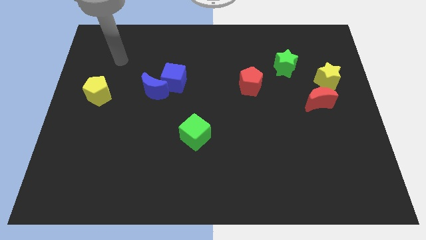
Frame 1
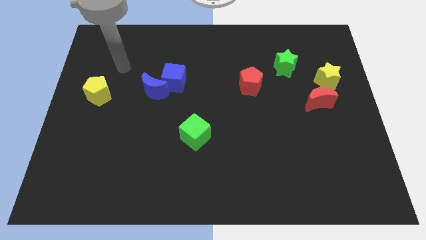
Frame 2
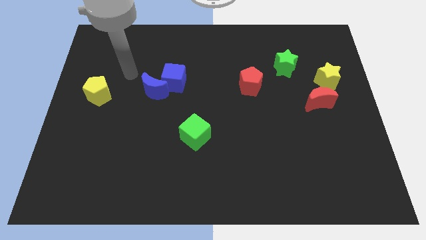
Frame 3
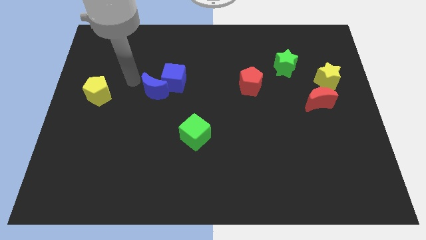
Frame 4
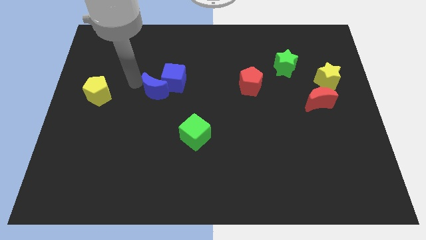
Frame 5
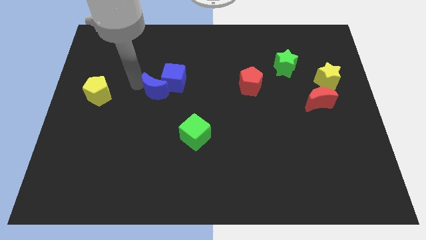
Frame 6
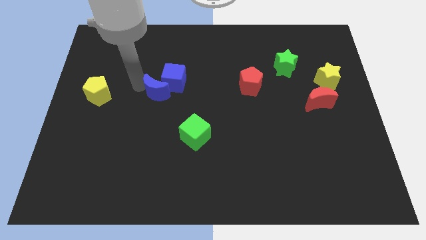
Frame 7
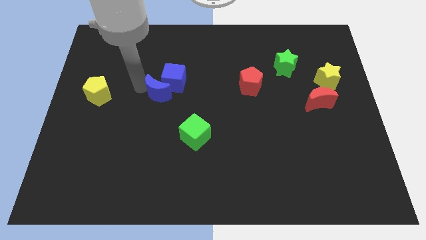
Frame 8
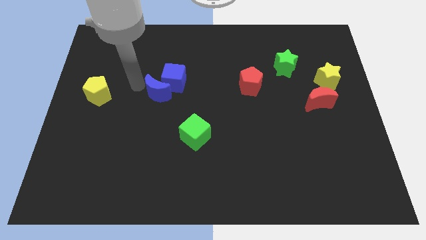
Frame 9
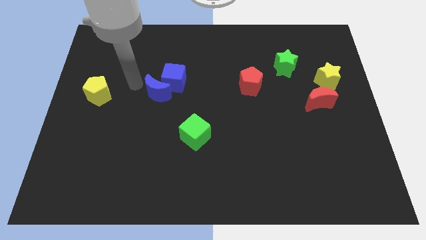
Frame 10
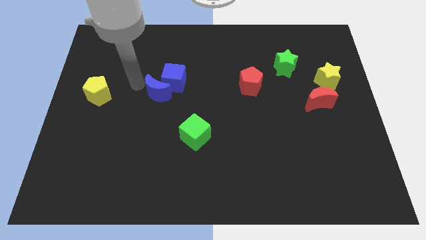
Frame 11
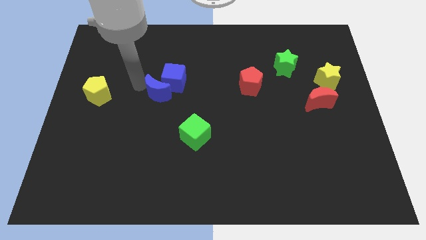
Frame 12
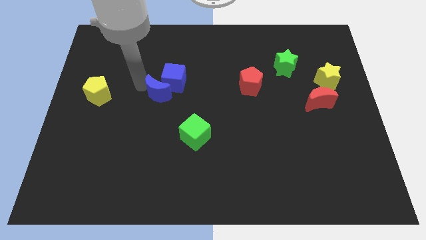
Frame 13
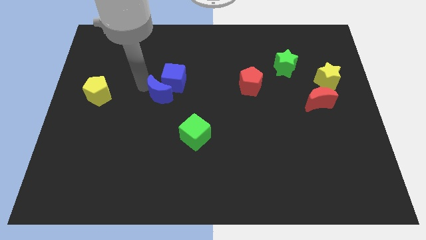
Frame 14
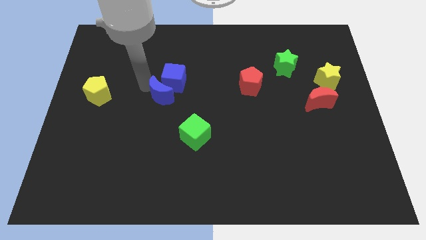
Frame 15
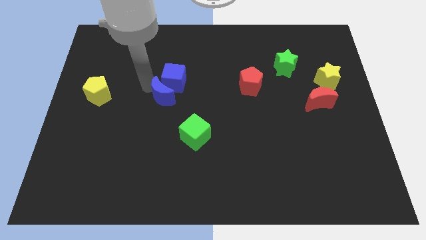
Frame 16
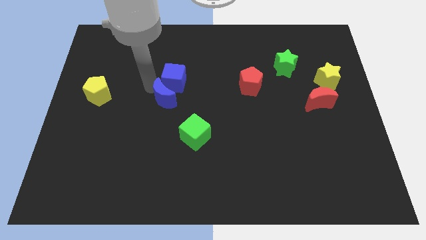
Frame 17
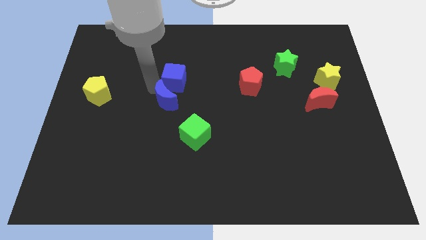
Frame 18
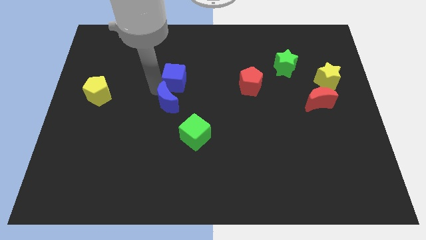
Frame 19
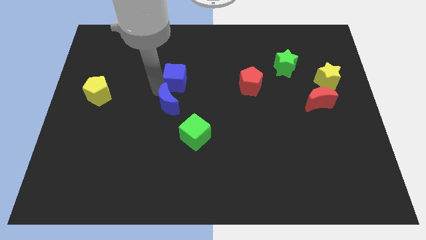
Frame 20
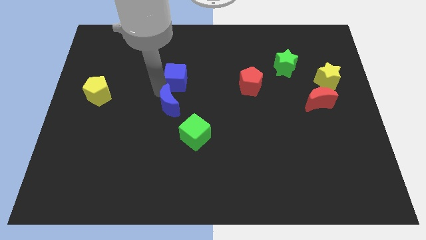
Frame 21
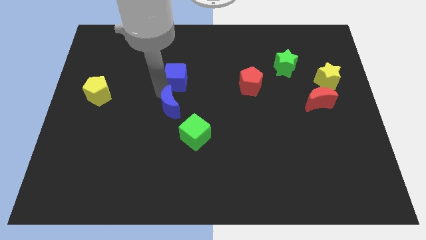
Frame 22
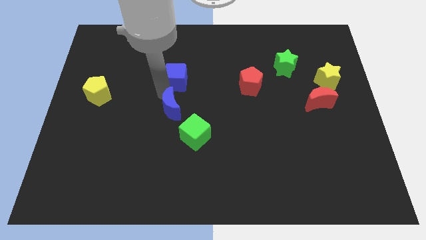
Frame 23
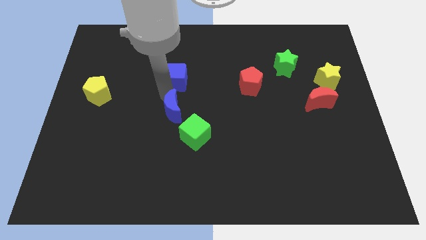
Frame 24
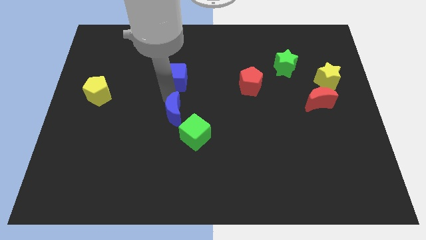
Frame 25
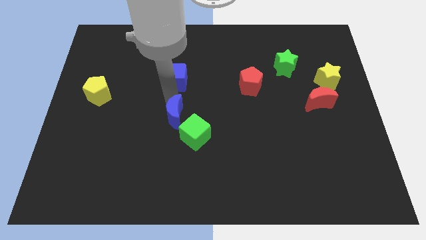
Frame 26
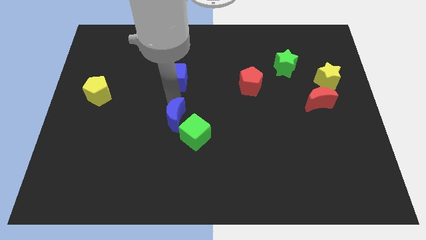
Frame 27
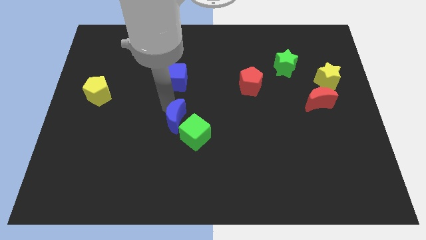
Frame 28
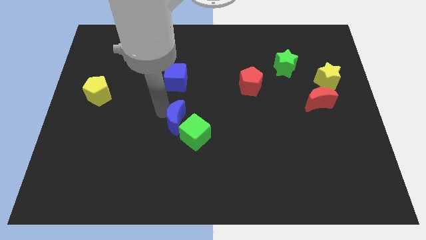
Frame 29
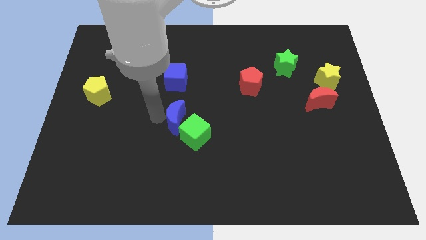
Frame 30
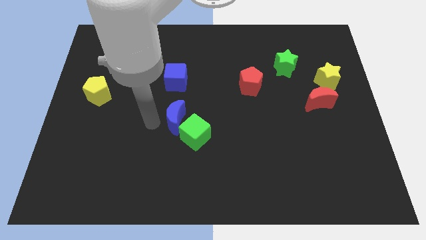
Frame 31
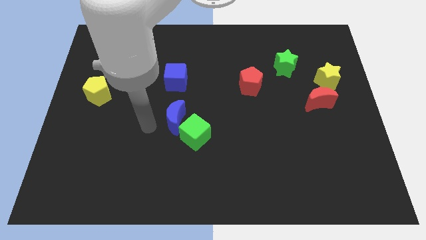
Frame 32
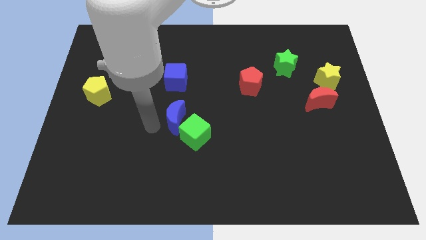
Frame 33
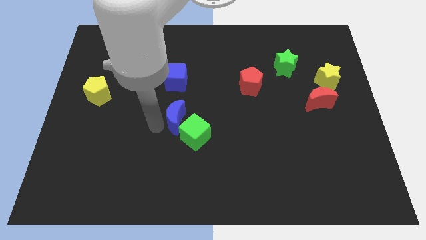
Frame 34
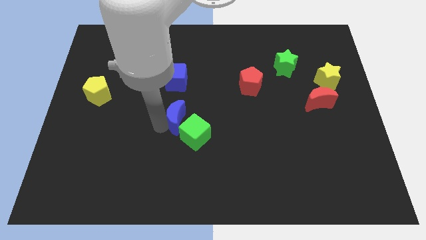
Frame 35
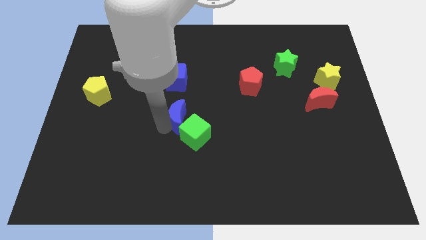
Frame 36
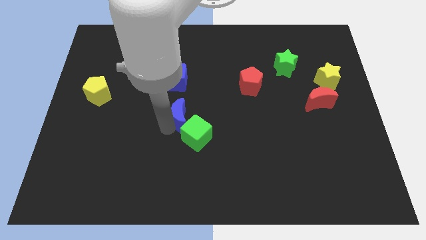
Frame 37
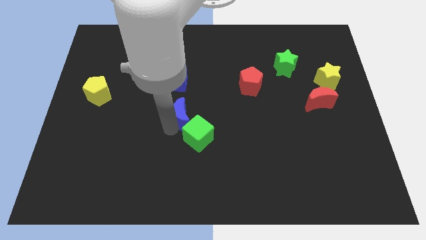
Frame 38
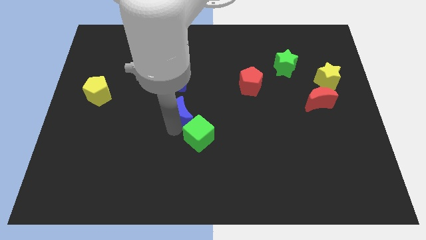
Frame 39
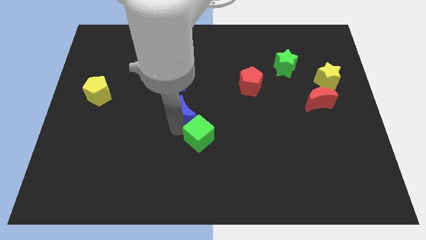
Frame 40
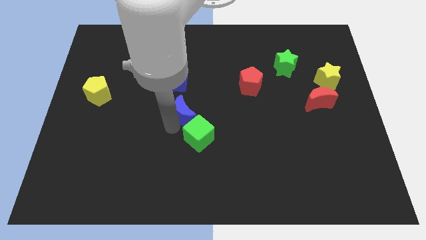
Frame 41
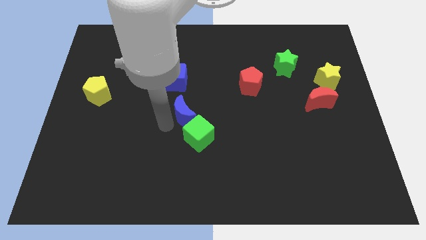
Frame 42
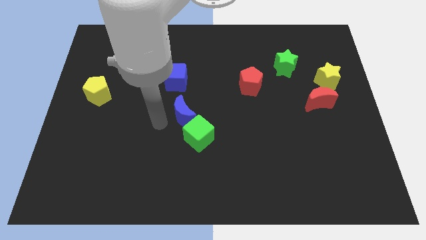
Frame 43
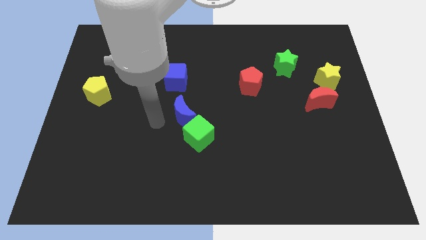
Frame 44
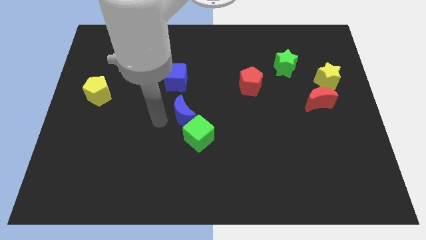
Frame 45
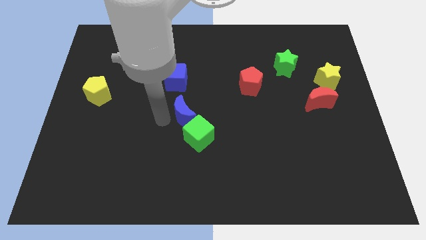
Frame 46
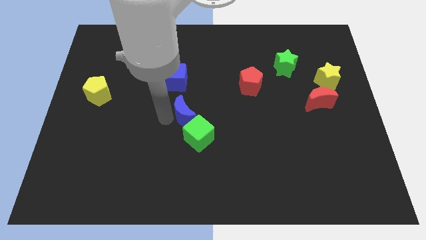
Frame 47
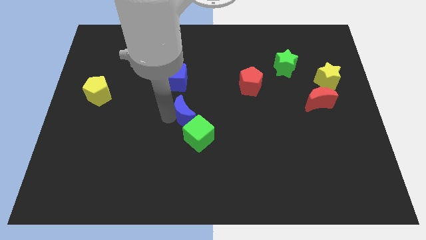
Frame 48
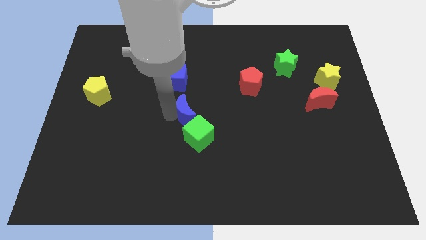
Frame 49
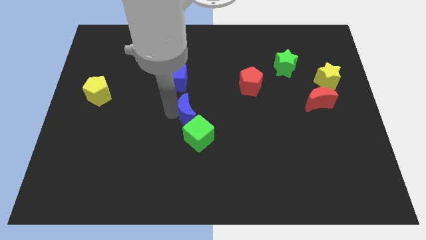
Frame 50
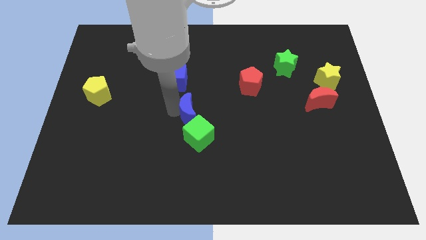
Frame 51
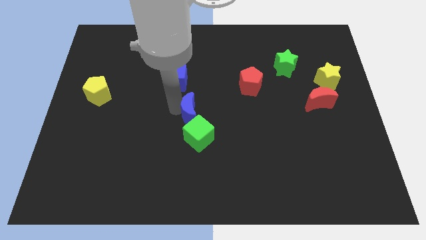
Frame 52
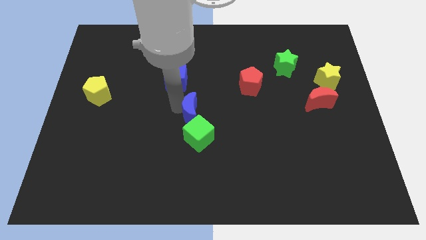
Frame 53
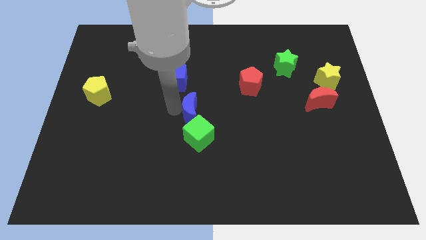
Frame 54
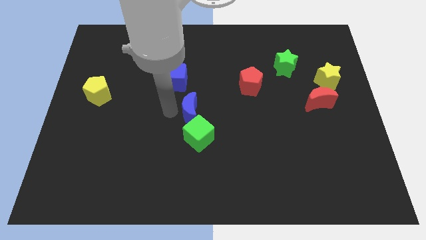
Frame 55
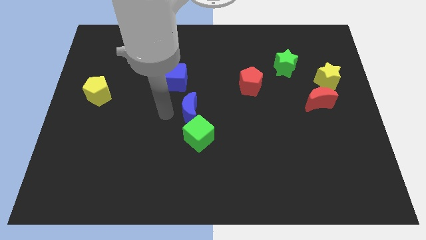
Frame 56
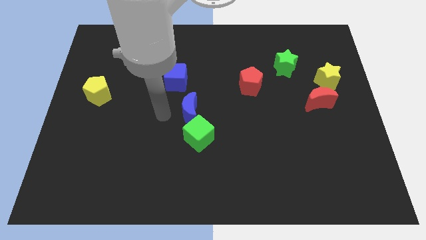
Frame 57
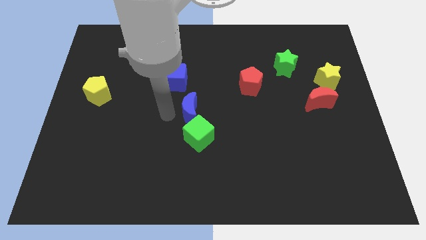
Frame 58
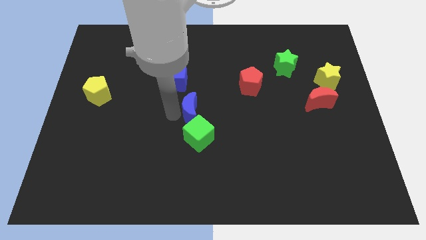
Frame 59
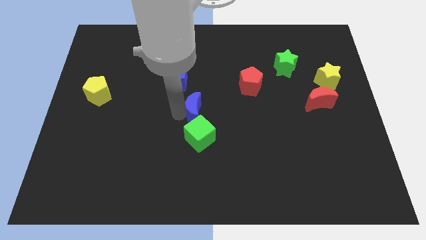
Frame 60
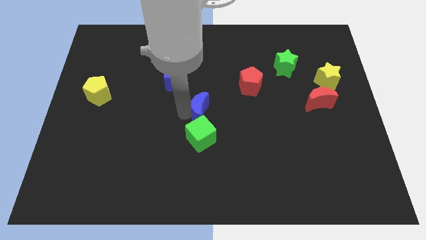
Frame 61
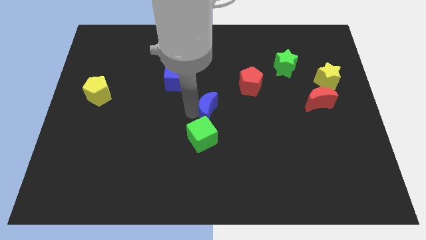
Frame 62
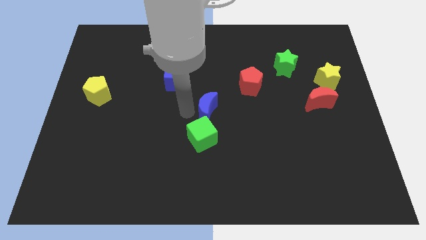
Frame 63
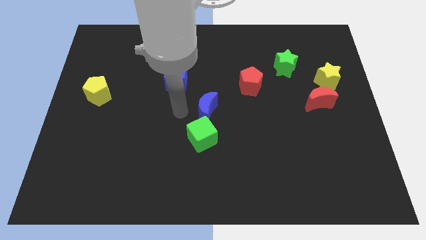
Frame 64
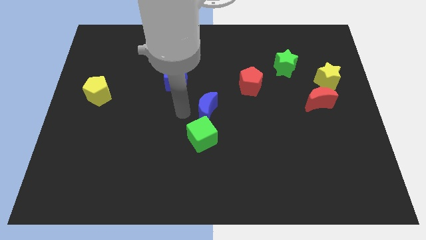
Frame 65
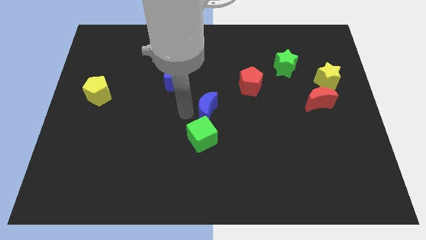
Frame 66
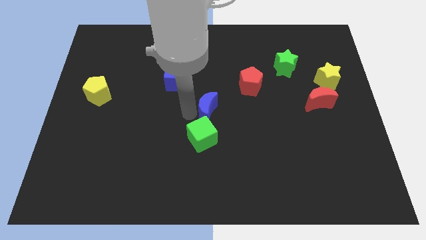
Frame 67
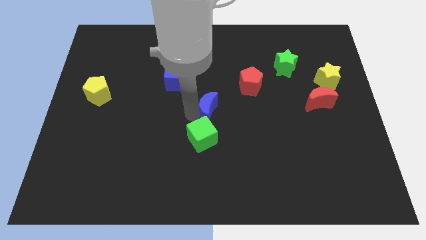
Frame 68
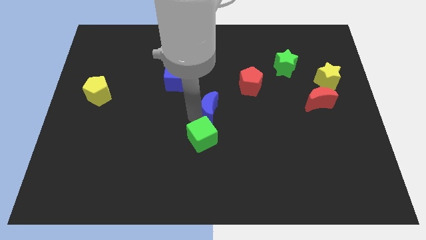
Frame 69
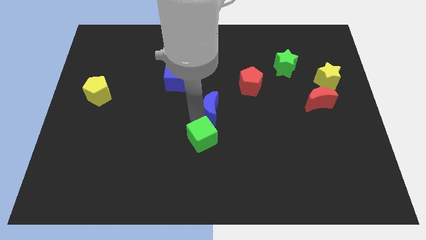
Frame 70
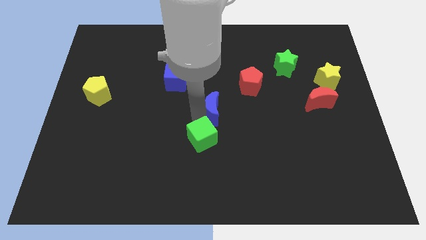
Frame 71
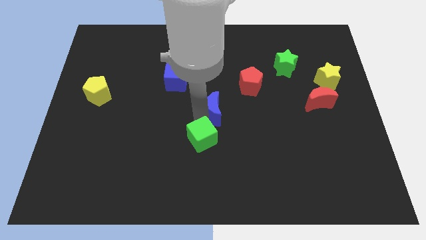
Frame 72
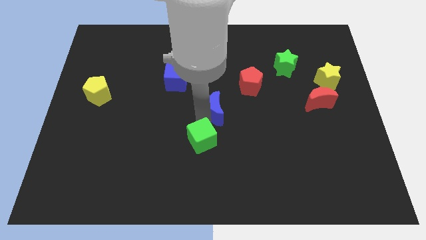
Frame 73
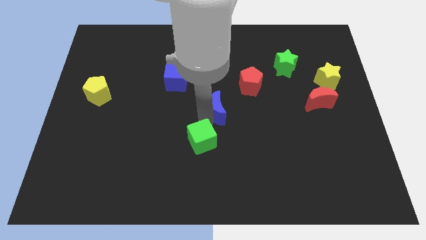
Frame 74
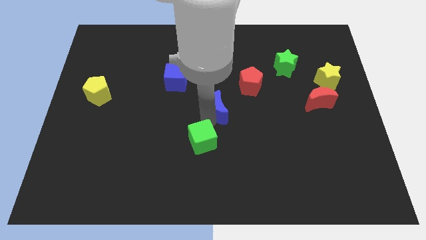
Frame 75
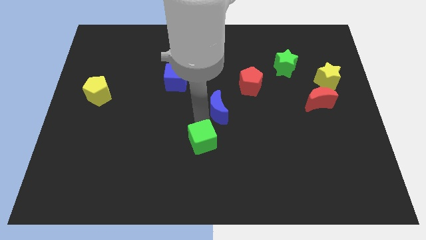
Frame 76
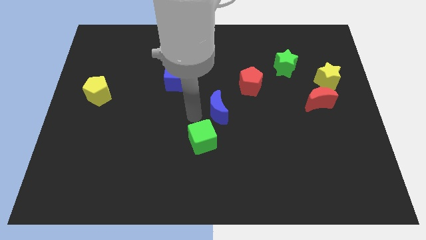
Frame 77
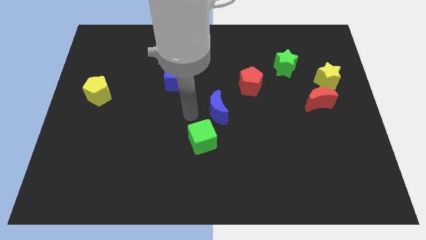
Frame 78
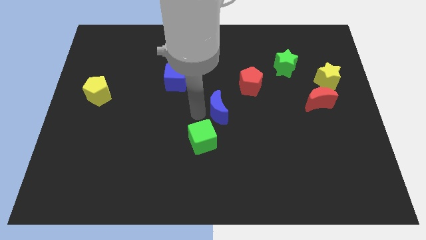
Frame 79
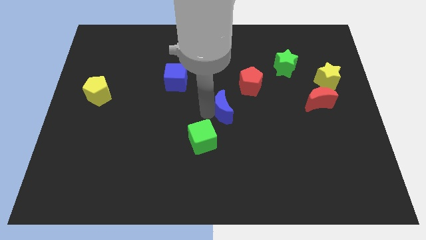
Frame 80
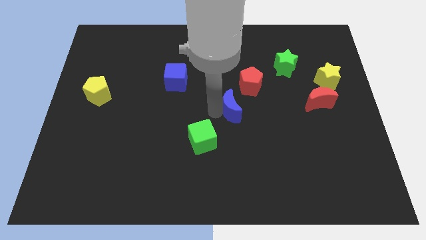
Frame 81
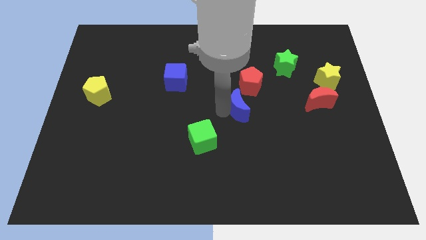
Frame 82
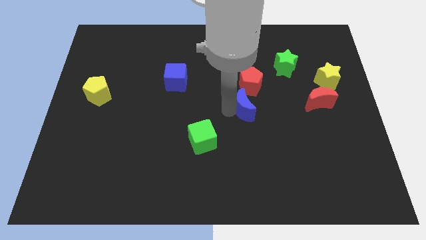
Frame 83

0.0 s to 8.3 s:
push the blue moon right
